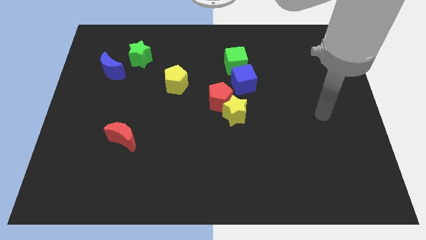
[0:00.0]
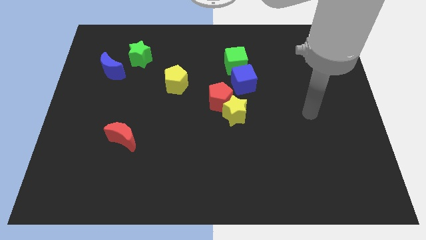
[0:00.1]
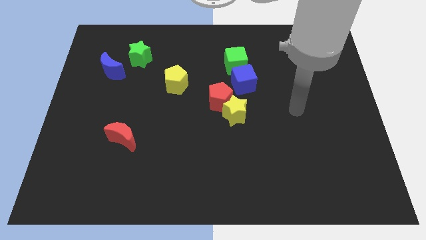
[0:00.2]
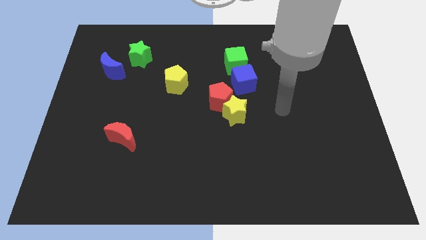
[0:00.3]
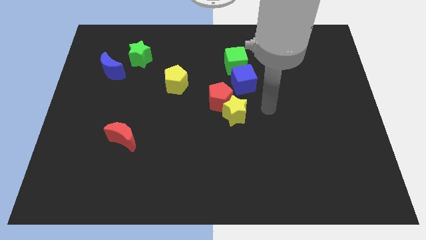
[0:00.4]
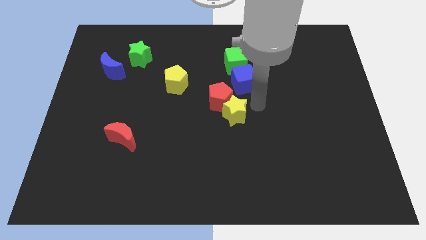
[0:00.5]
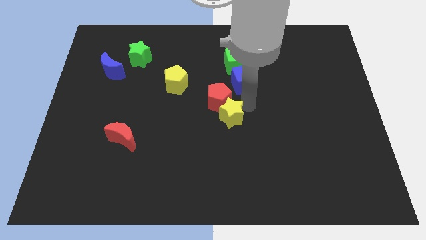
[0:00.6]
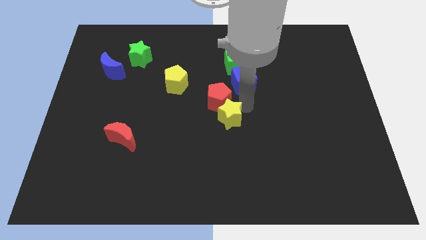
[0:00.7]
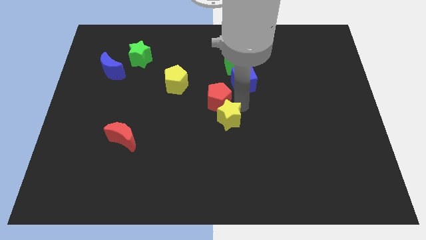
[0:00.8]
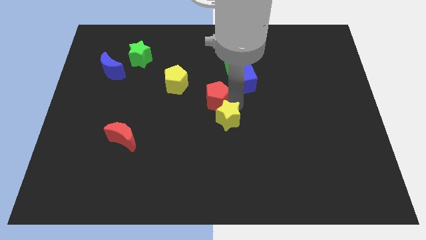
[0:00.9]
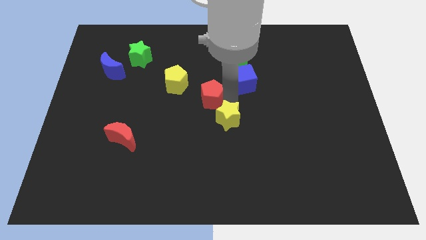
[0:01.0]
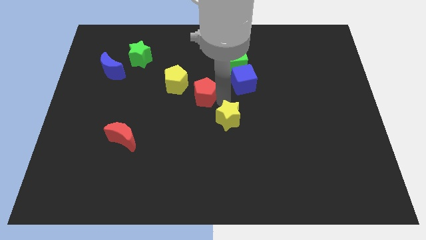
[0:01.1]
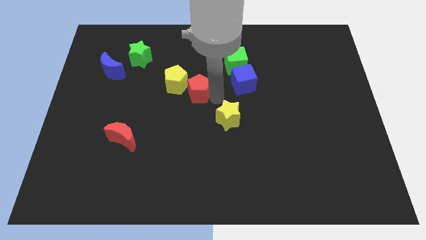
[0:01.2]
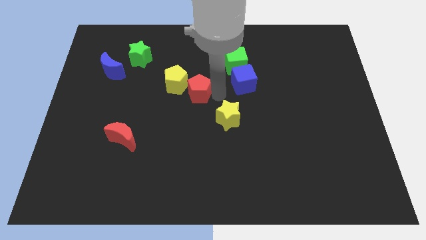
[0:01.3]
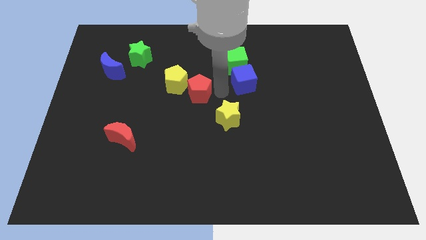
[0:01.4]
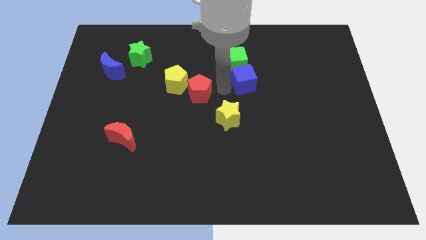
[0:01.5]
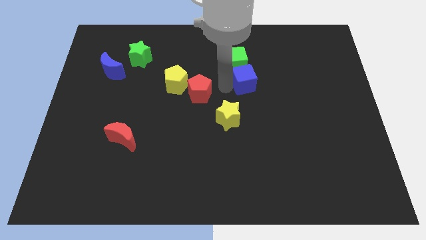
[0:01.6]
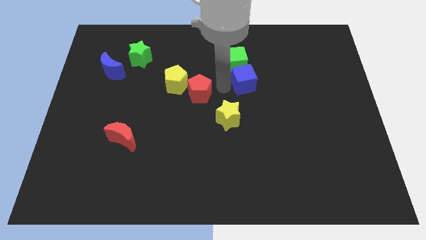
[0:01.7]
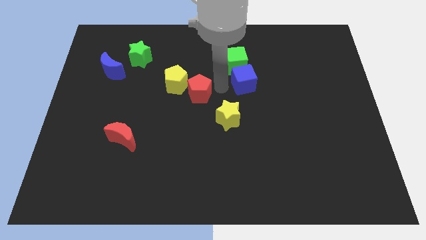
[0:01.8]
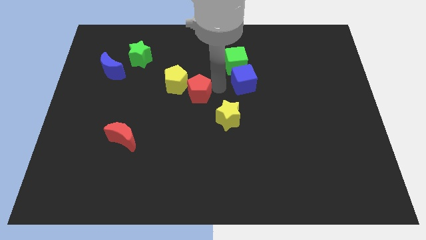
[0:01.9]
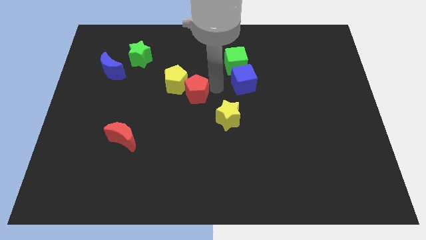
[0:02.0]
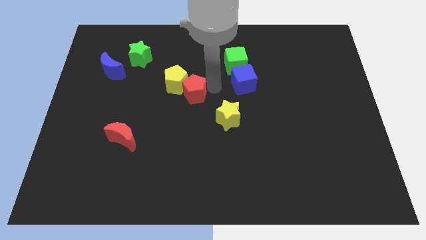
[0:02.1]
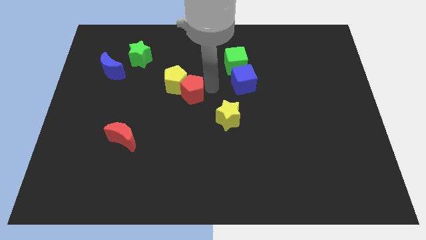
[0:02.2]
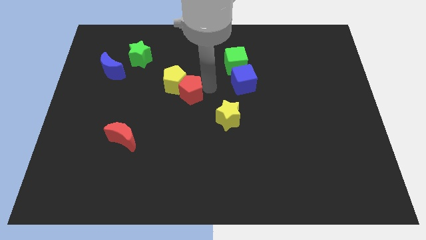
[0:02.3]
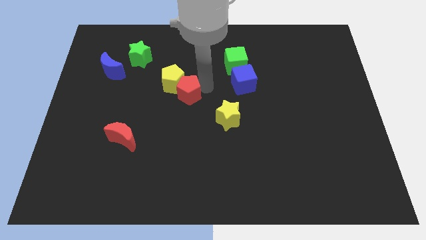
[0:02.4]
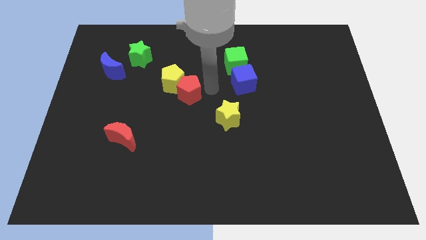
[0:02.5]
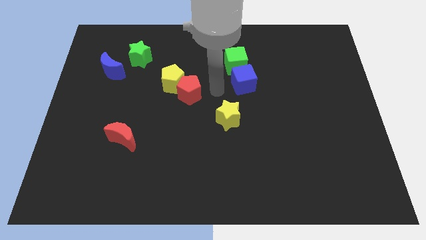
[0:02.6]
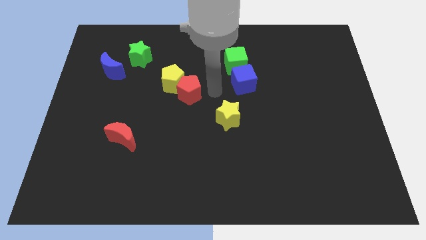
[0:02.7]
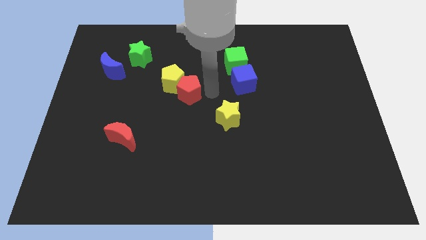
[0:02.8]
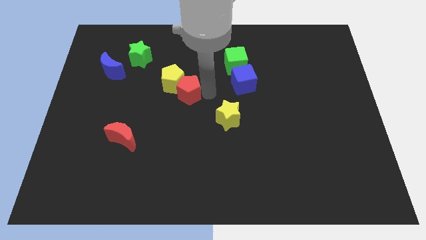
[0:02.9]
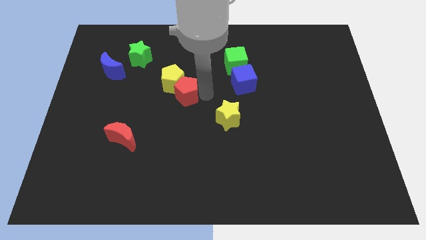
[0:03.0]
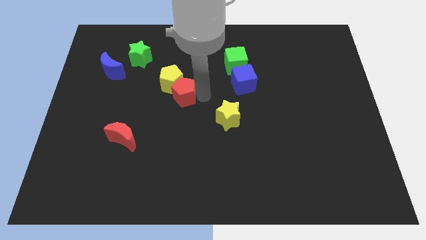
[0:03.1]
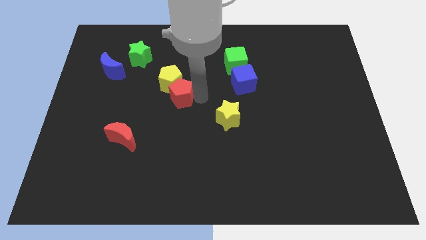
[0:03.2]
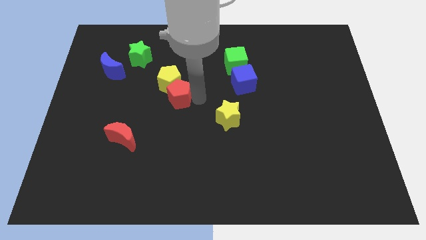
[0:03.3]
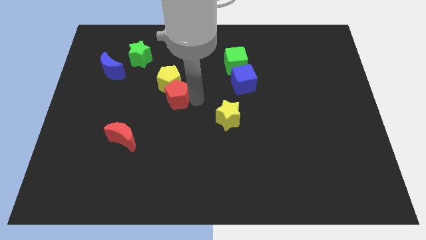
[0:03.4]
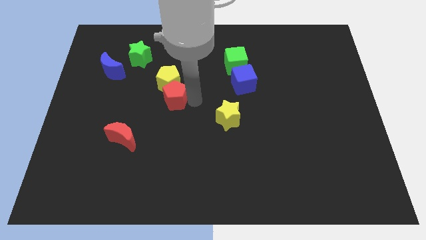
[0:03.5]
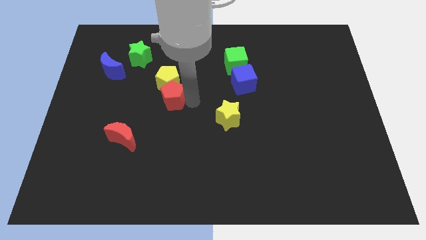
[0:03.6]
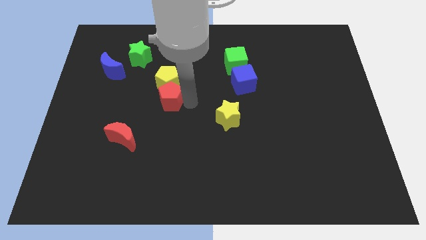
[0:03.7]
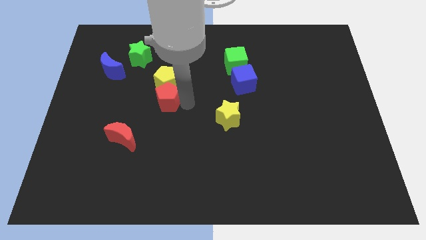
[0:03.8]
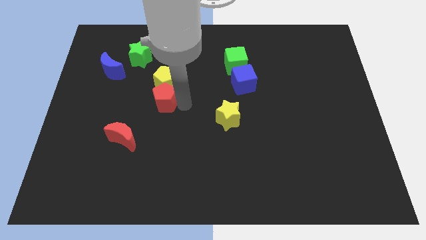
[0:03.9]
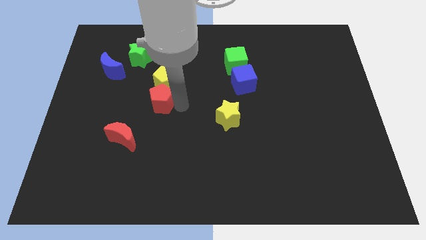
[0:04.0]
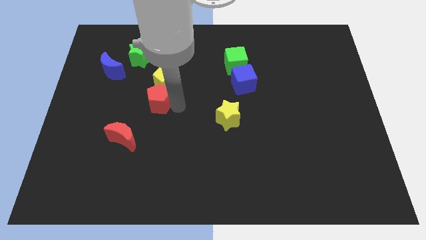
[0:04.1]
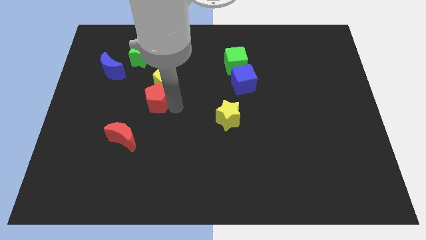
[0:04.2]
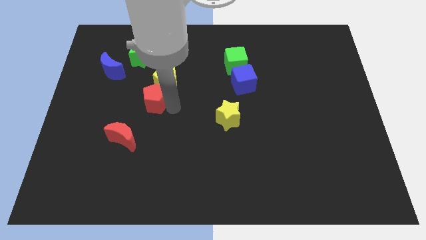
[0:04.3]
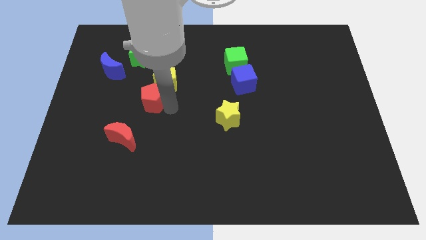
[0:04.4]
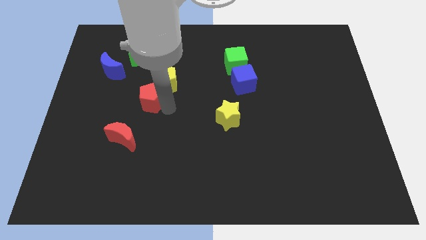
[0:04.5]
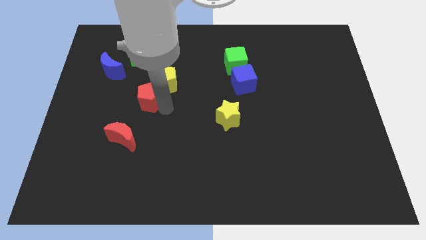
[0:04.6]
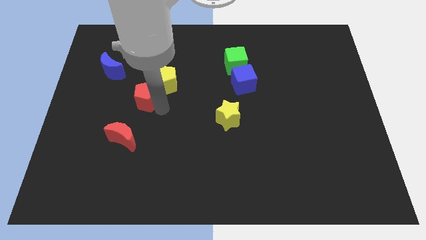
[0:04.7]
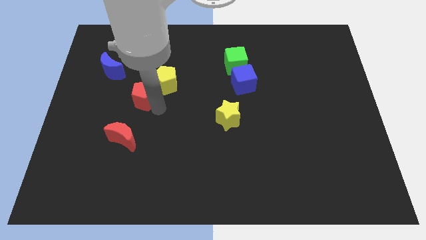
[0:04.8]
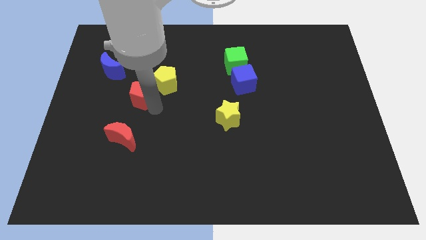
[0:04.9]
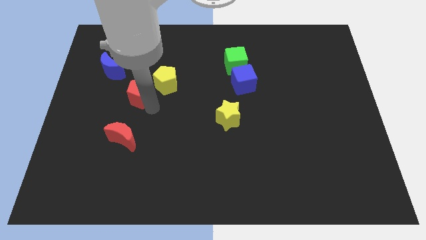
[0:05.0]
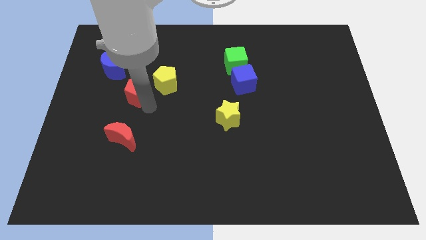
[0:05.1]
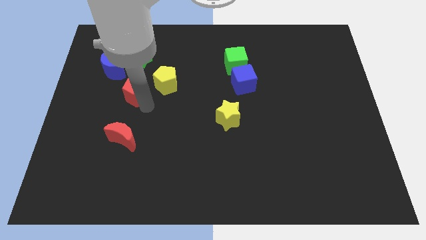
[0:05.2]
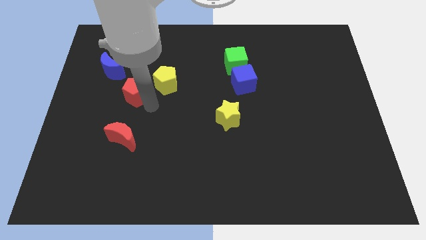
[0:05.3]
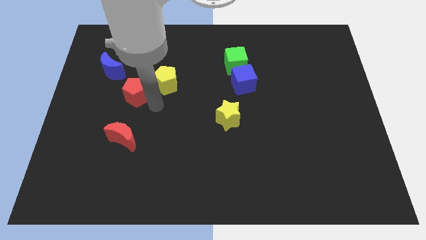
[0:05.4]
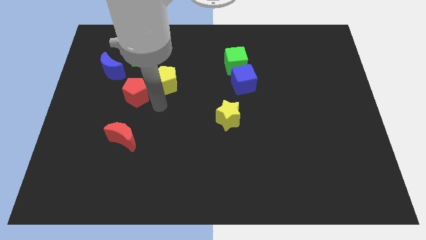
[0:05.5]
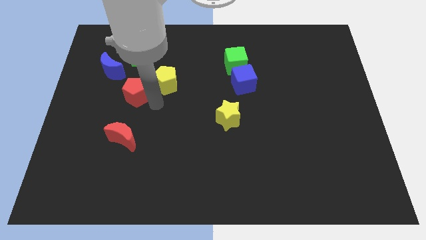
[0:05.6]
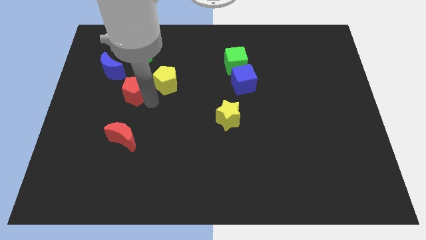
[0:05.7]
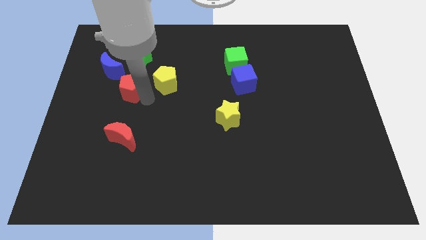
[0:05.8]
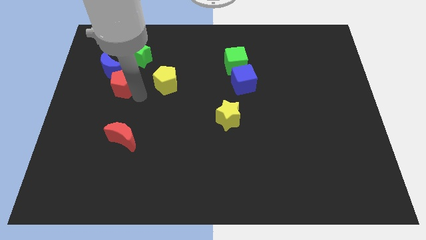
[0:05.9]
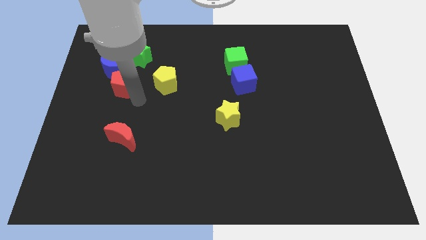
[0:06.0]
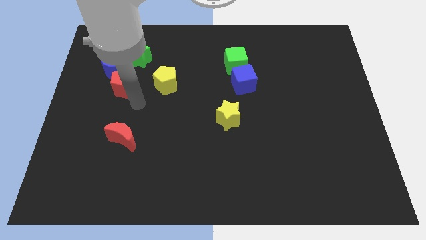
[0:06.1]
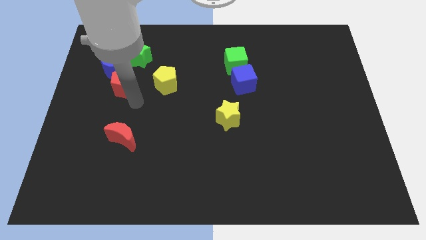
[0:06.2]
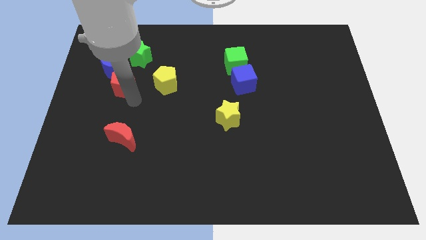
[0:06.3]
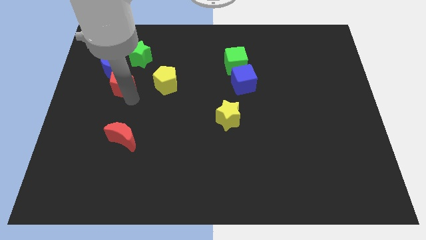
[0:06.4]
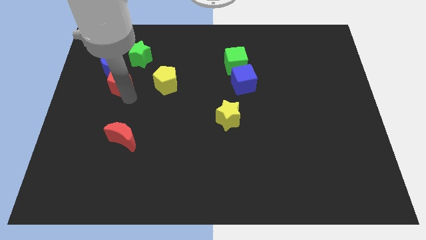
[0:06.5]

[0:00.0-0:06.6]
put the red pentagon to the blue moon

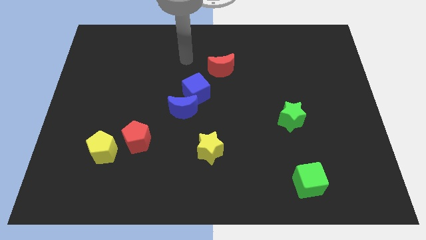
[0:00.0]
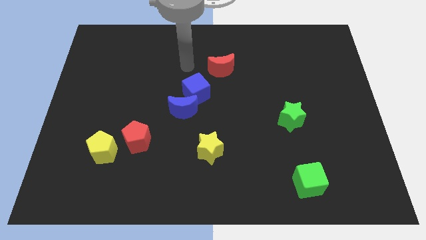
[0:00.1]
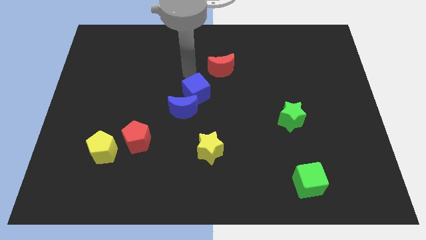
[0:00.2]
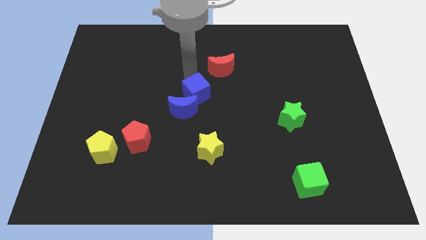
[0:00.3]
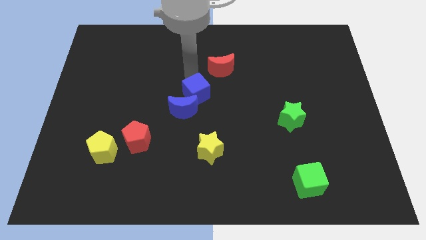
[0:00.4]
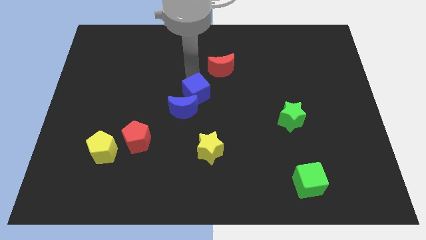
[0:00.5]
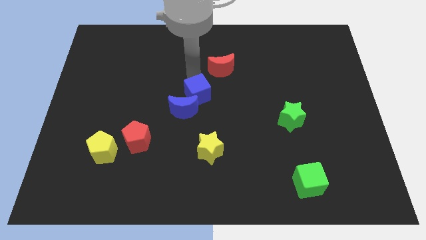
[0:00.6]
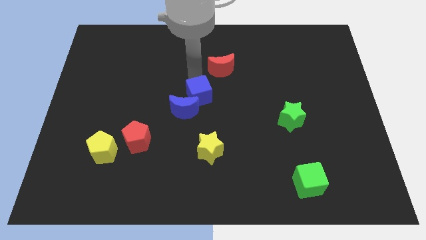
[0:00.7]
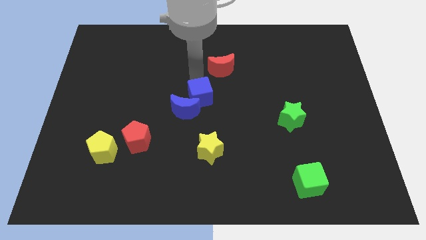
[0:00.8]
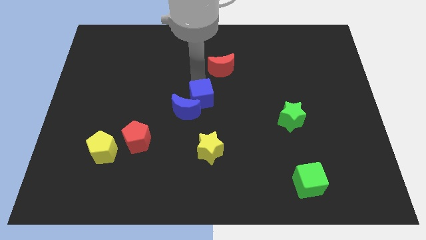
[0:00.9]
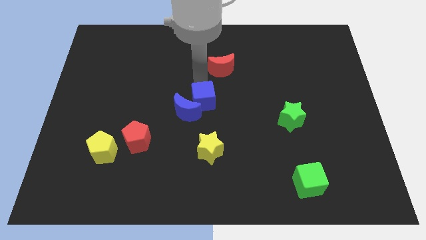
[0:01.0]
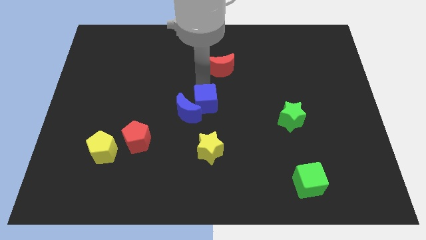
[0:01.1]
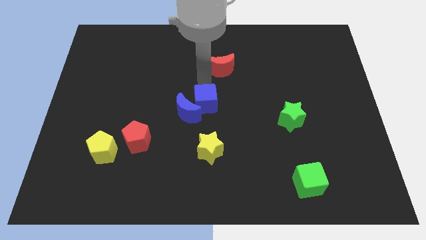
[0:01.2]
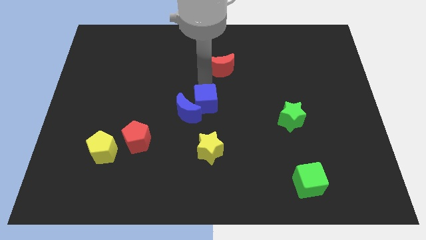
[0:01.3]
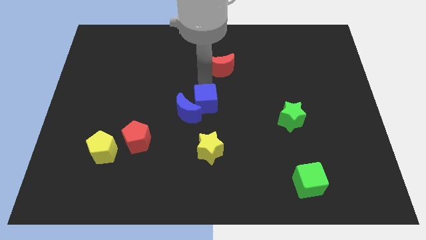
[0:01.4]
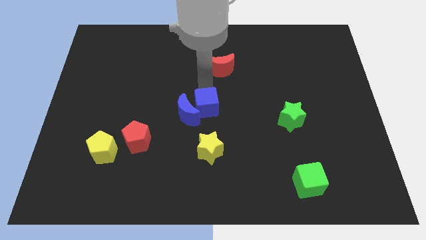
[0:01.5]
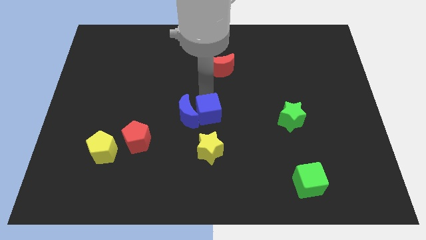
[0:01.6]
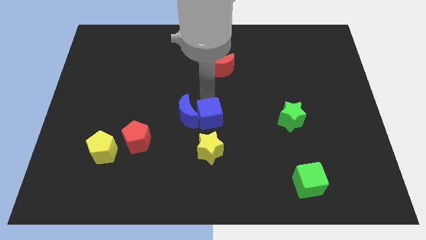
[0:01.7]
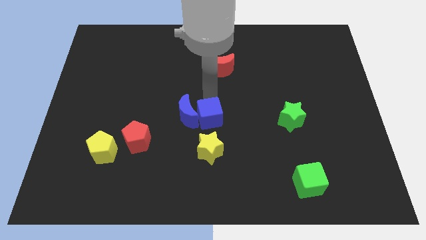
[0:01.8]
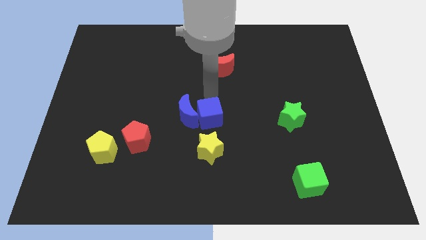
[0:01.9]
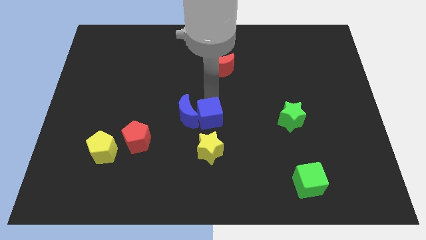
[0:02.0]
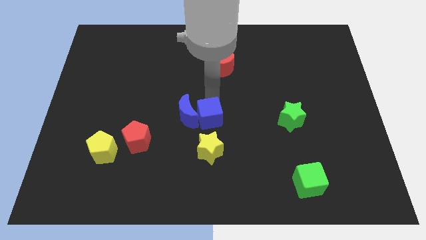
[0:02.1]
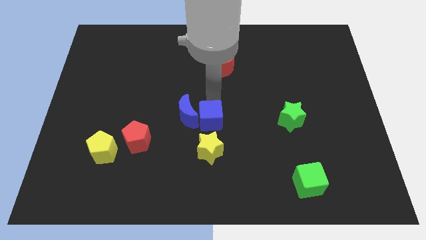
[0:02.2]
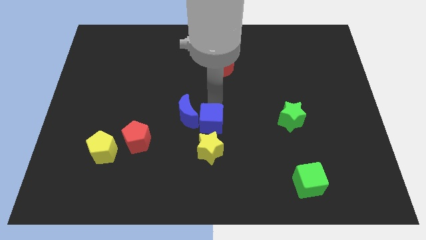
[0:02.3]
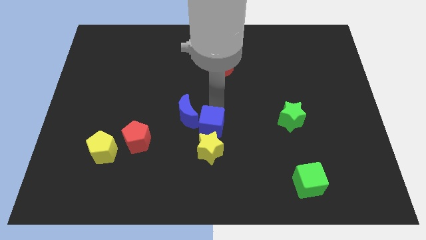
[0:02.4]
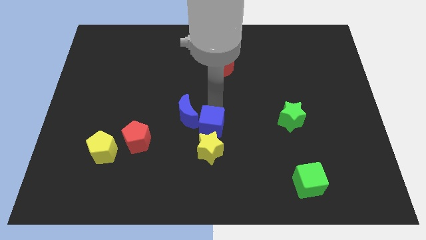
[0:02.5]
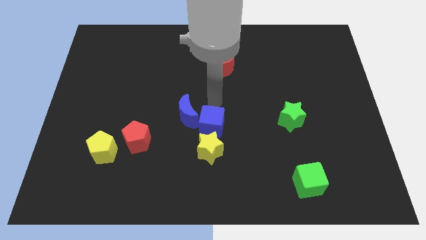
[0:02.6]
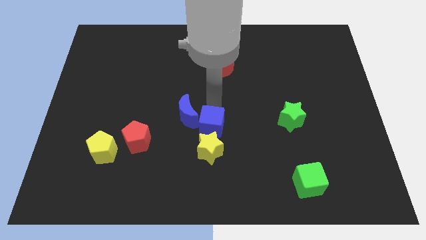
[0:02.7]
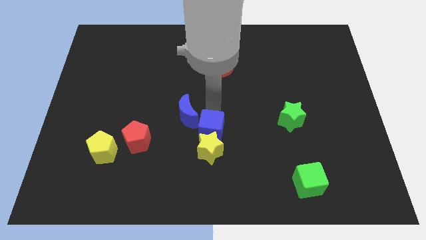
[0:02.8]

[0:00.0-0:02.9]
move the blue cube close to the yellow star
